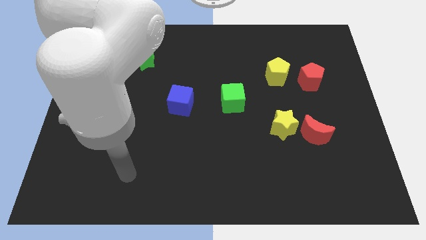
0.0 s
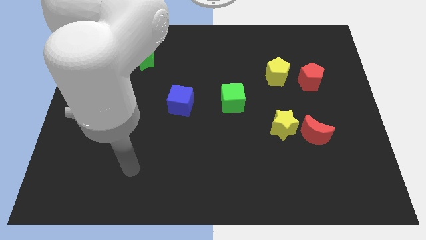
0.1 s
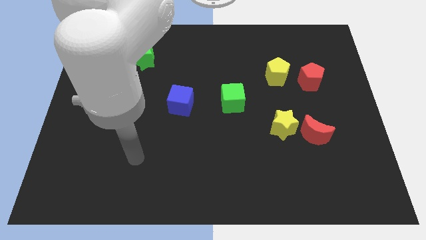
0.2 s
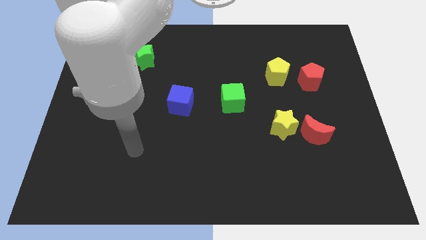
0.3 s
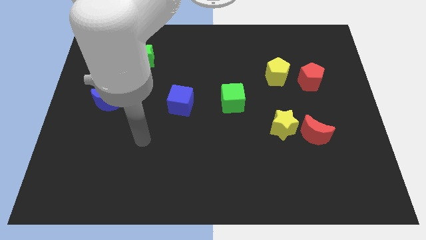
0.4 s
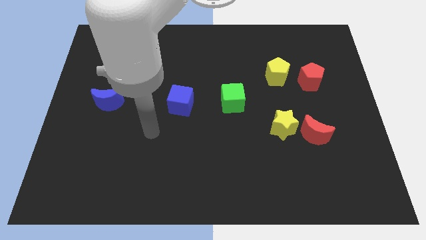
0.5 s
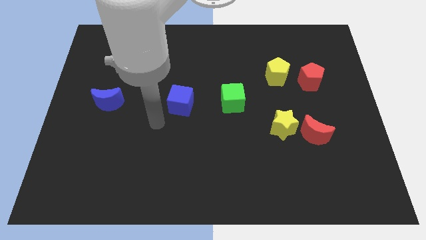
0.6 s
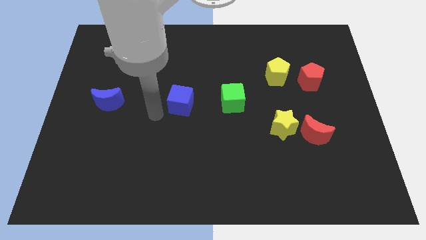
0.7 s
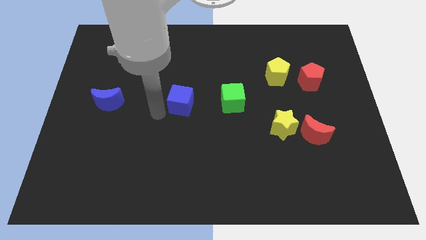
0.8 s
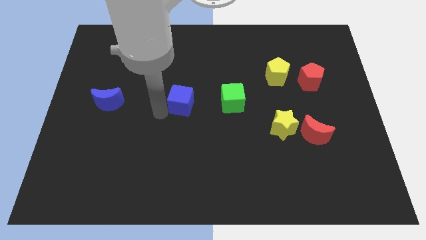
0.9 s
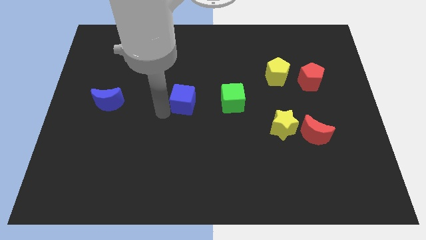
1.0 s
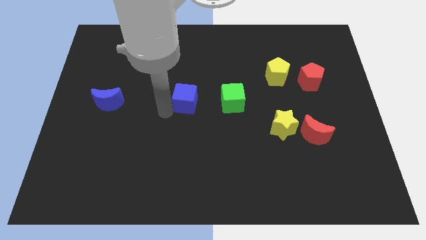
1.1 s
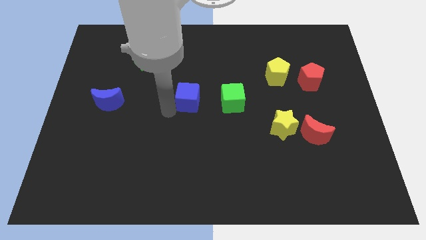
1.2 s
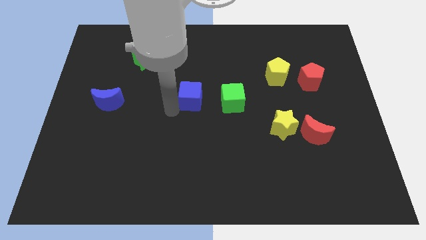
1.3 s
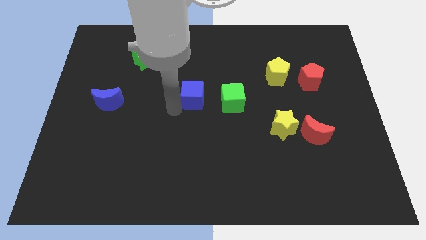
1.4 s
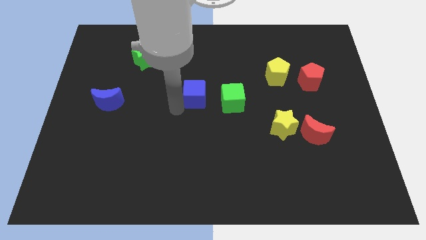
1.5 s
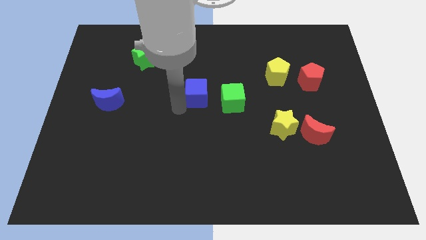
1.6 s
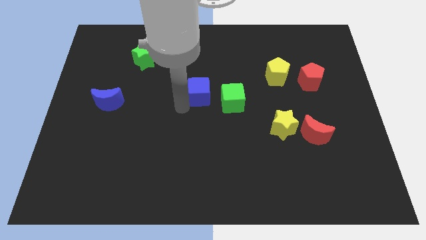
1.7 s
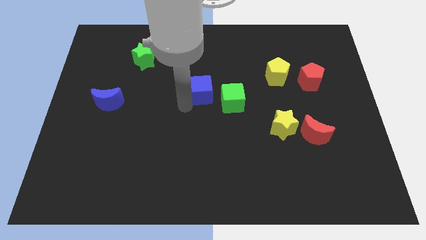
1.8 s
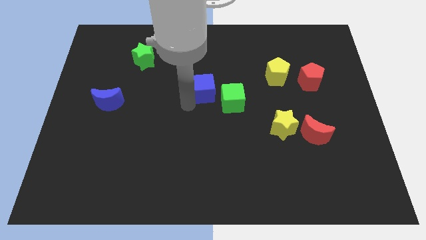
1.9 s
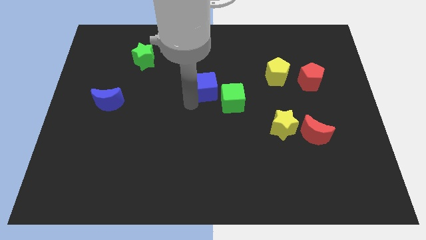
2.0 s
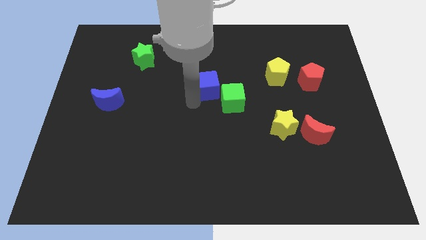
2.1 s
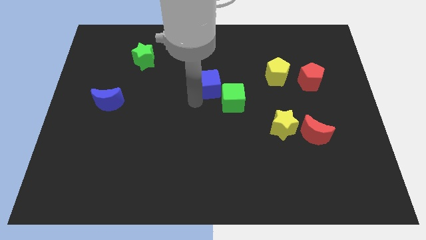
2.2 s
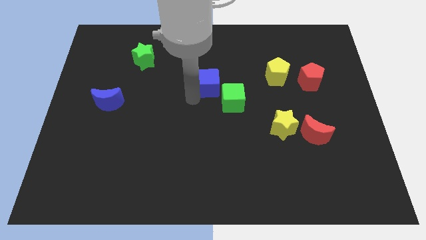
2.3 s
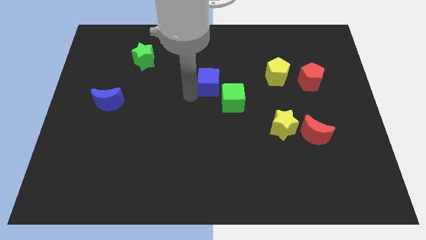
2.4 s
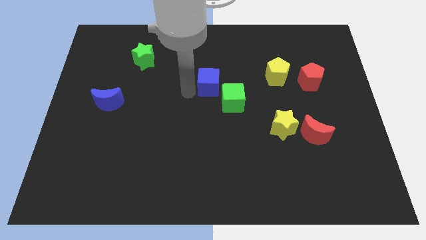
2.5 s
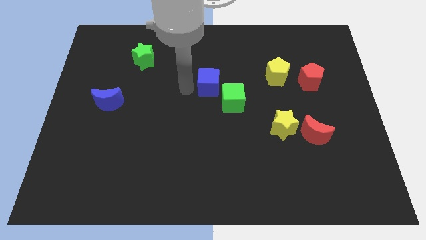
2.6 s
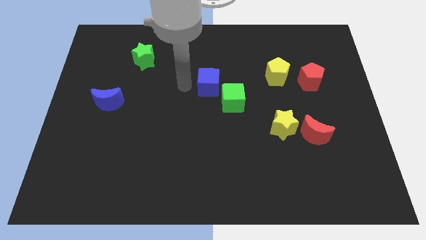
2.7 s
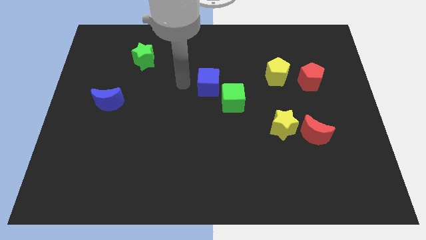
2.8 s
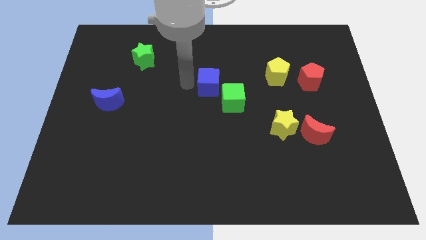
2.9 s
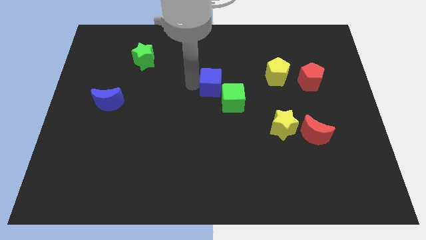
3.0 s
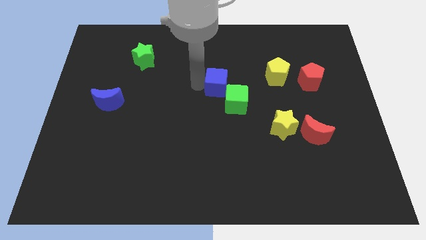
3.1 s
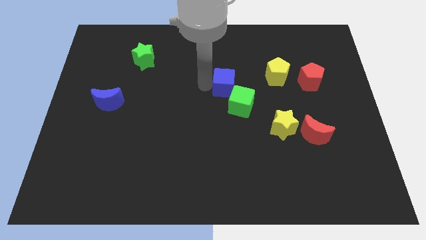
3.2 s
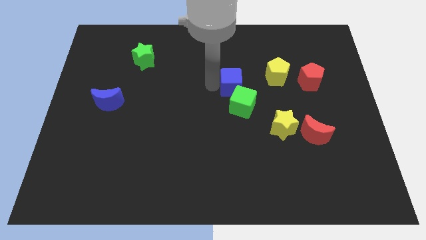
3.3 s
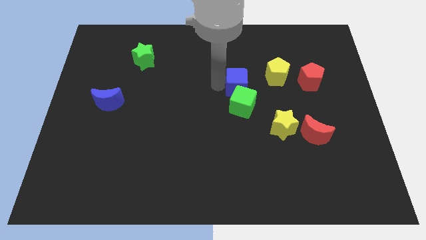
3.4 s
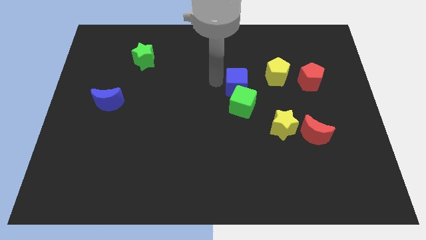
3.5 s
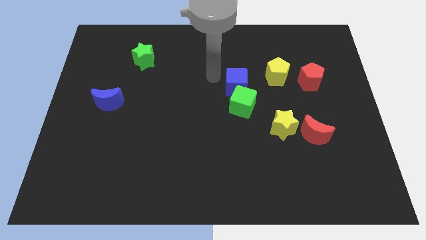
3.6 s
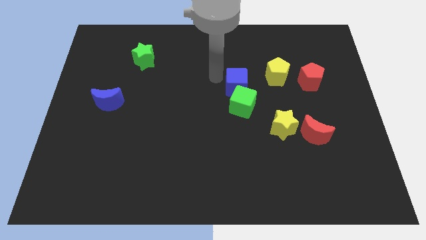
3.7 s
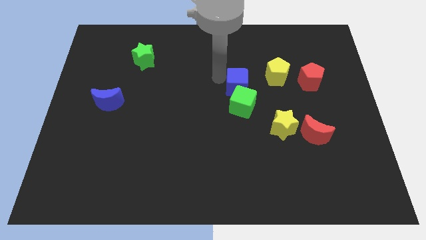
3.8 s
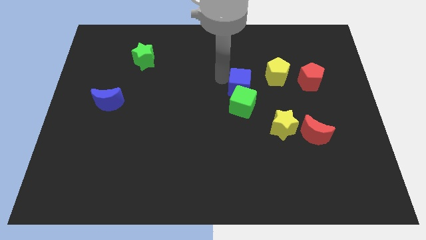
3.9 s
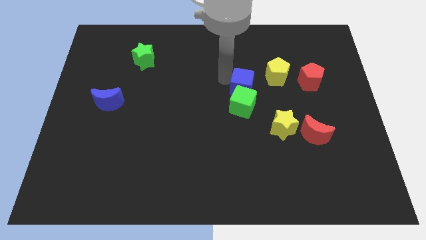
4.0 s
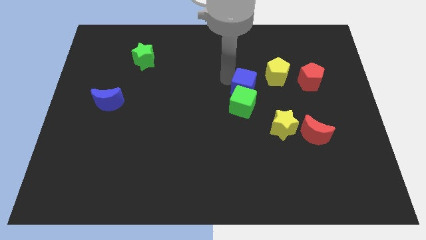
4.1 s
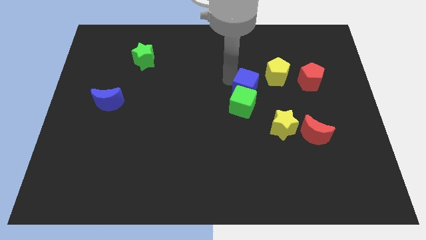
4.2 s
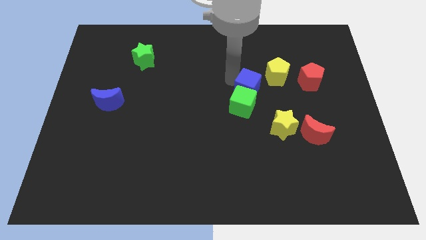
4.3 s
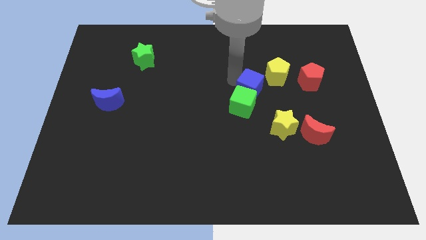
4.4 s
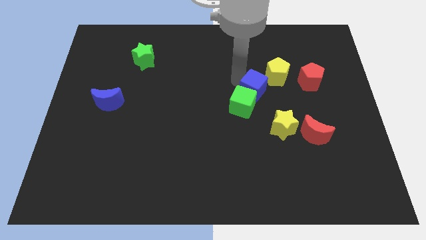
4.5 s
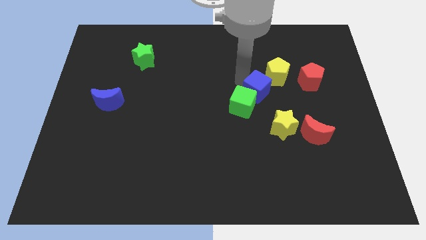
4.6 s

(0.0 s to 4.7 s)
put the blue cube to the right of the green cube

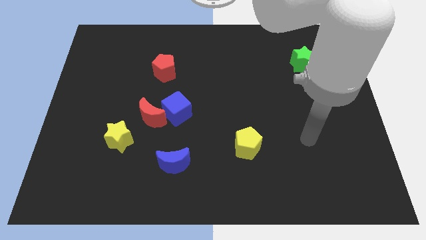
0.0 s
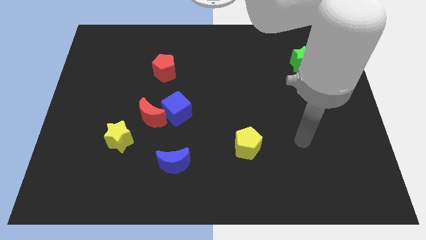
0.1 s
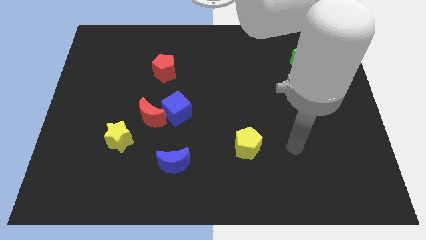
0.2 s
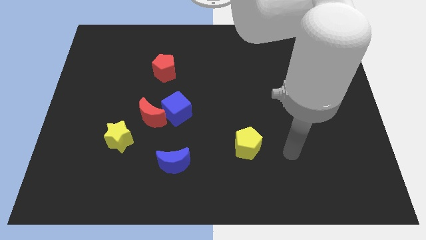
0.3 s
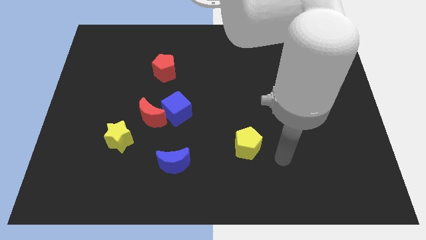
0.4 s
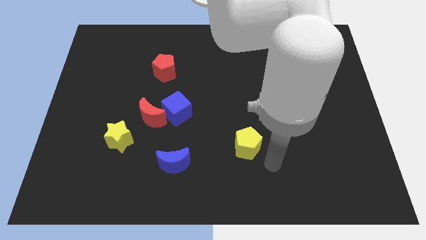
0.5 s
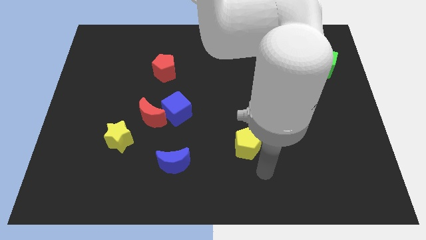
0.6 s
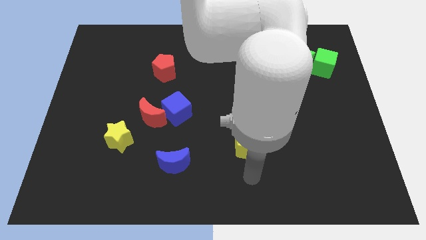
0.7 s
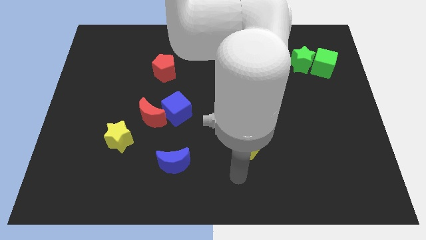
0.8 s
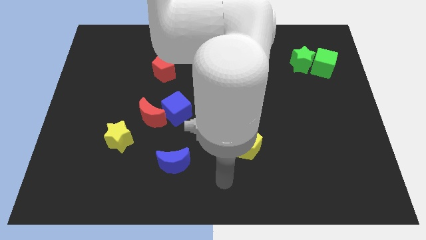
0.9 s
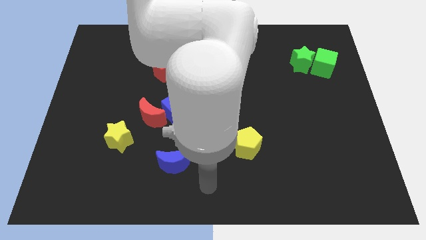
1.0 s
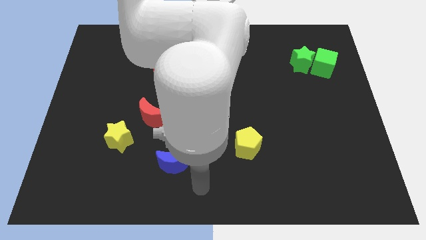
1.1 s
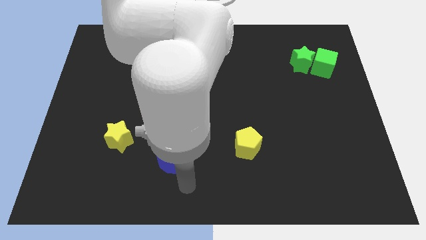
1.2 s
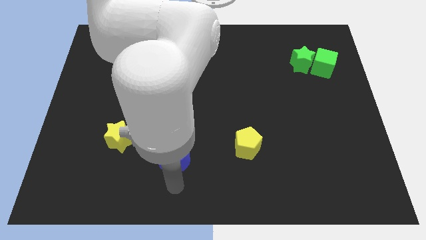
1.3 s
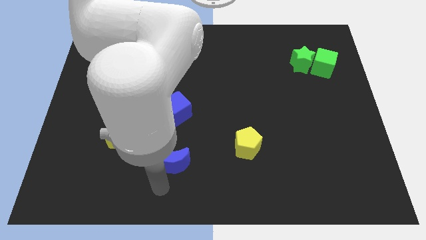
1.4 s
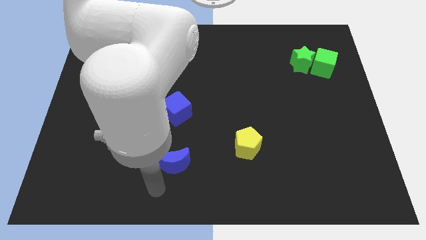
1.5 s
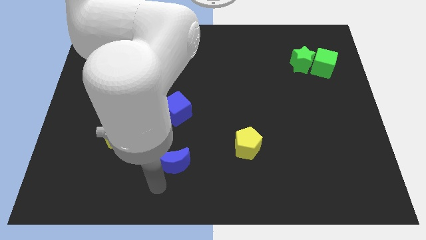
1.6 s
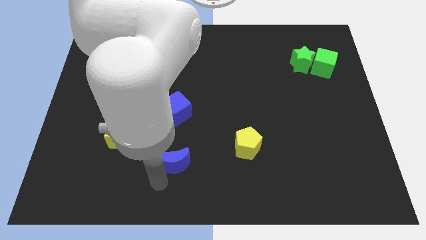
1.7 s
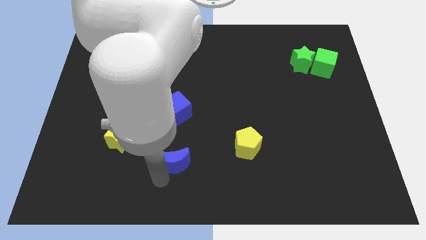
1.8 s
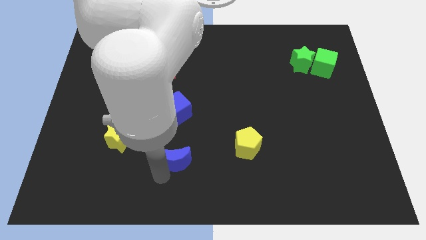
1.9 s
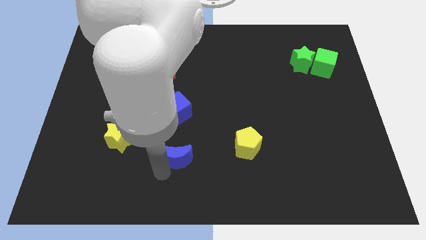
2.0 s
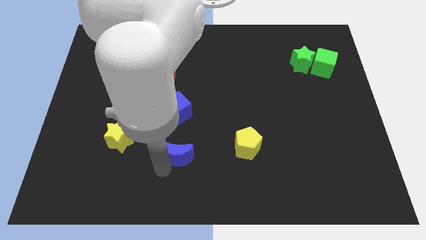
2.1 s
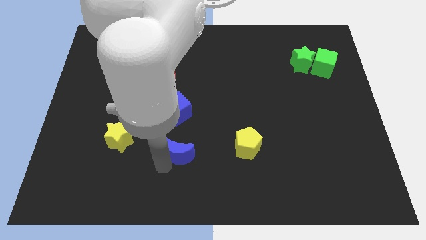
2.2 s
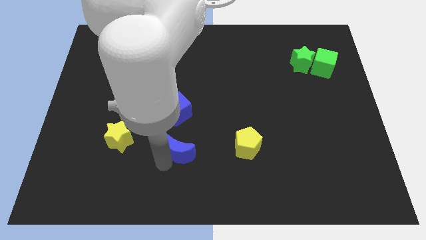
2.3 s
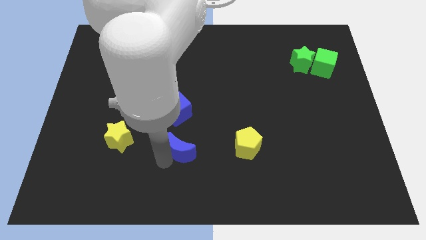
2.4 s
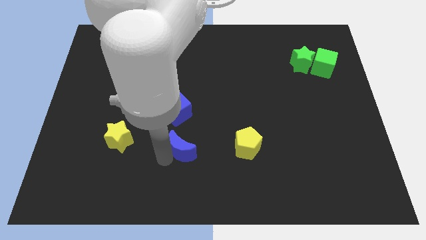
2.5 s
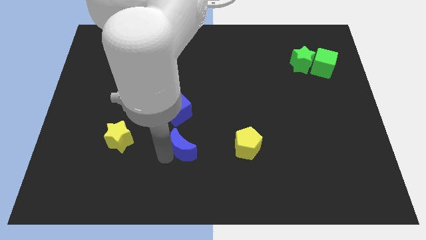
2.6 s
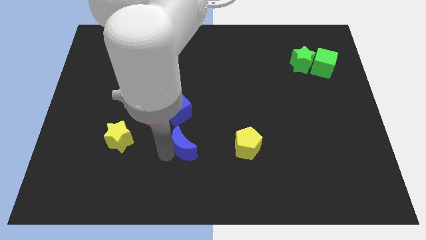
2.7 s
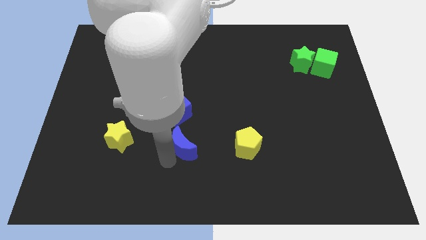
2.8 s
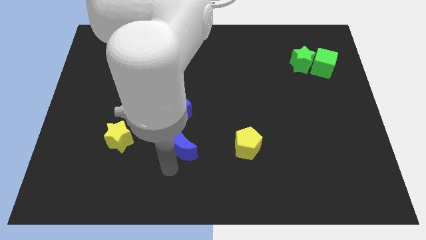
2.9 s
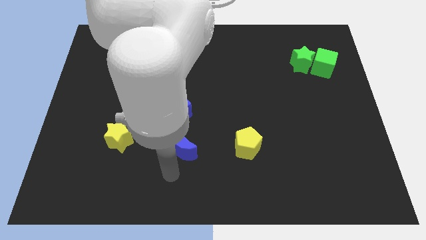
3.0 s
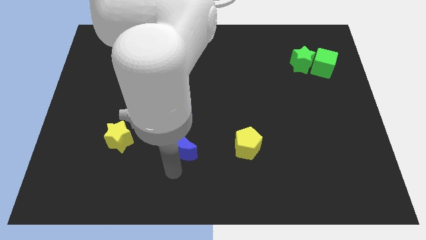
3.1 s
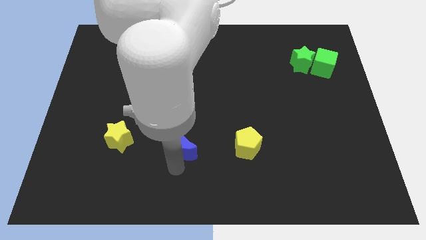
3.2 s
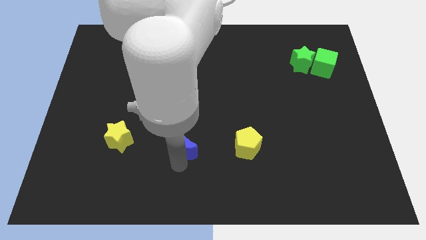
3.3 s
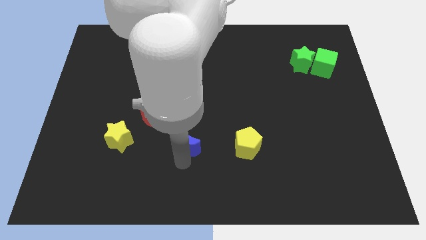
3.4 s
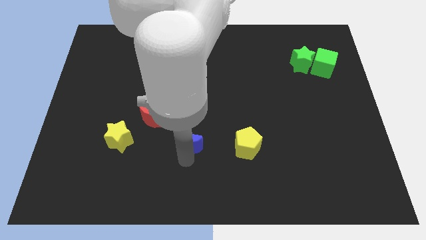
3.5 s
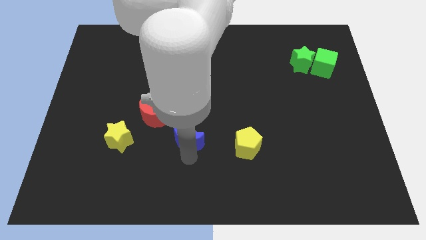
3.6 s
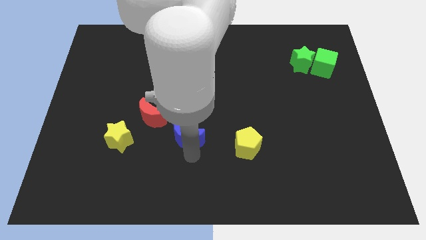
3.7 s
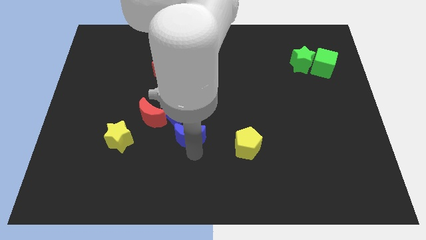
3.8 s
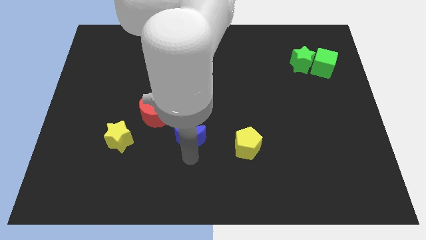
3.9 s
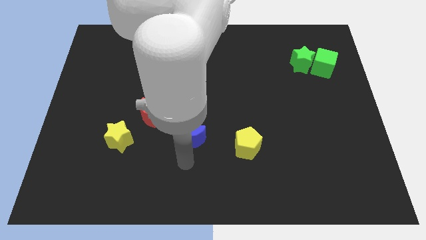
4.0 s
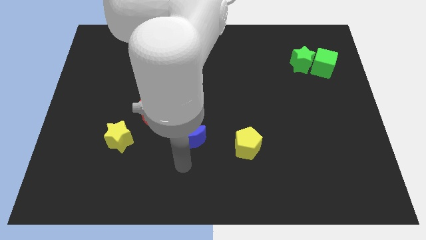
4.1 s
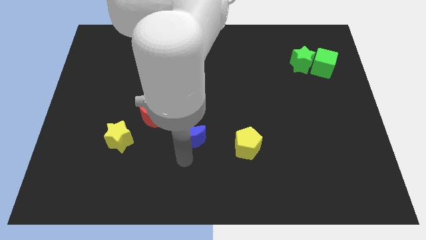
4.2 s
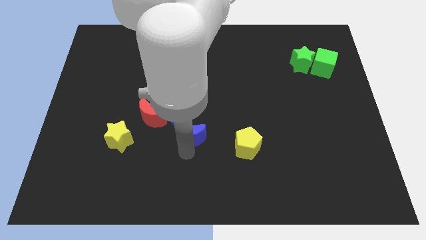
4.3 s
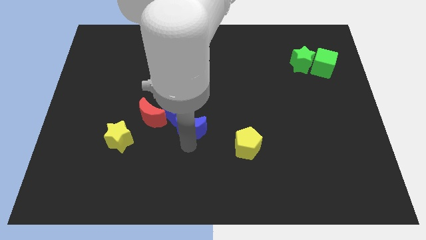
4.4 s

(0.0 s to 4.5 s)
slide the blue moon right of the red moon
